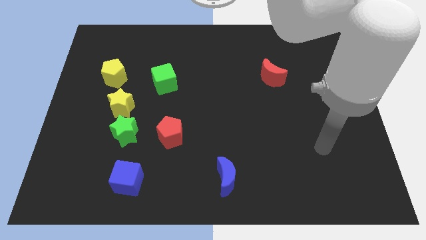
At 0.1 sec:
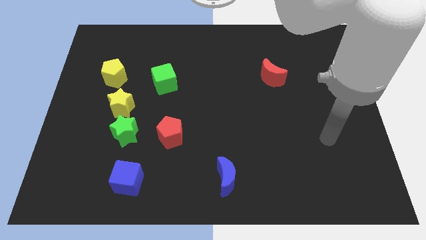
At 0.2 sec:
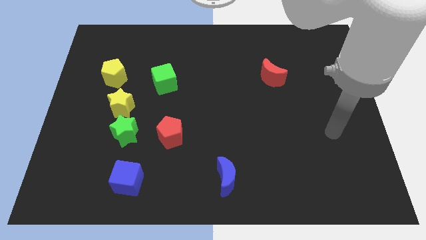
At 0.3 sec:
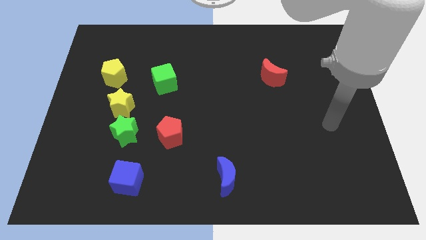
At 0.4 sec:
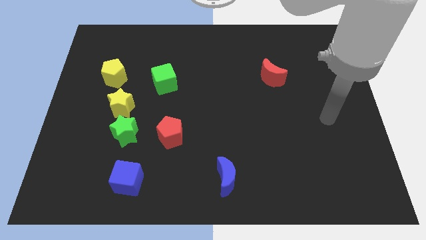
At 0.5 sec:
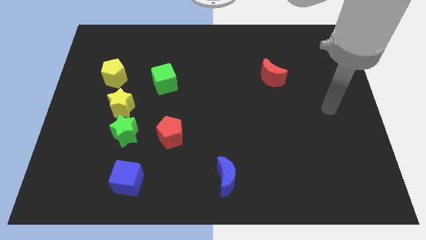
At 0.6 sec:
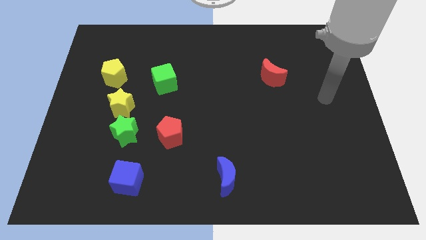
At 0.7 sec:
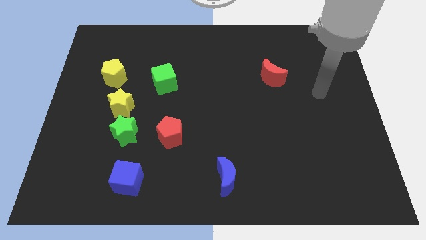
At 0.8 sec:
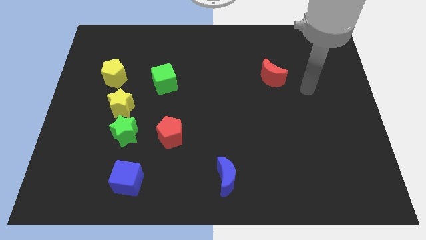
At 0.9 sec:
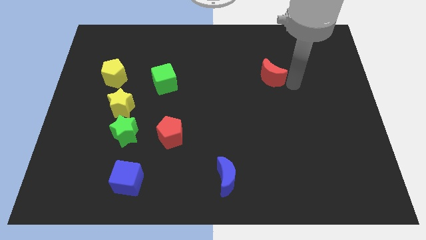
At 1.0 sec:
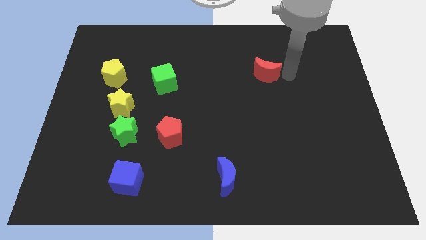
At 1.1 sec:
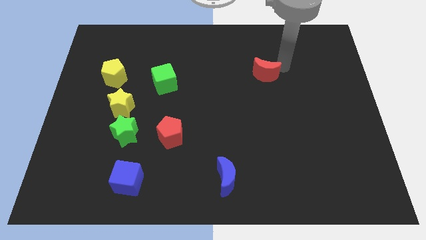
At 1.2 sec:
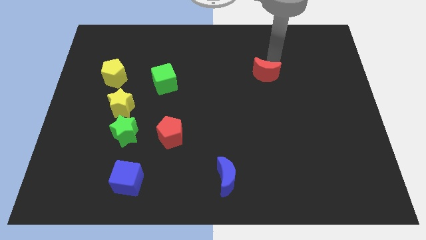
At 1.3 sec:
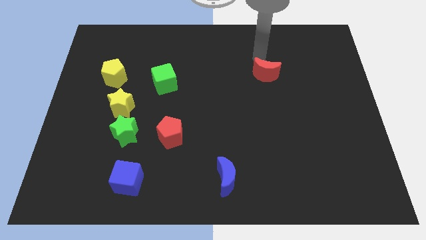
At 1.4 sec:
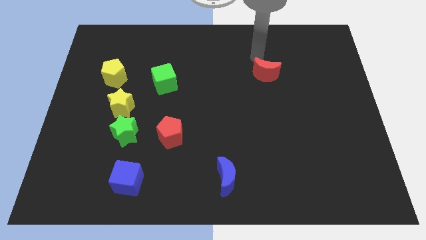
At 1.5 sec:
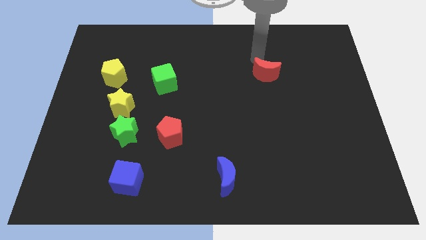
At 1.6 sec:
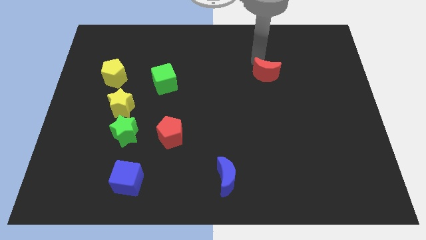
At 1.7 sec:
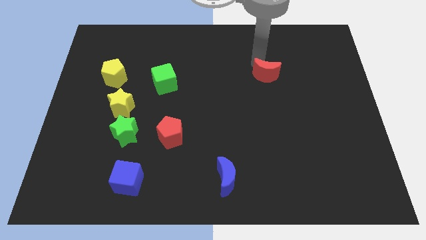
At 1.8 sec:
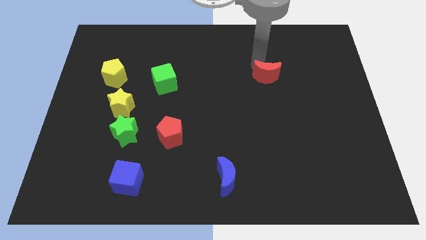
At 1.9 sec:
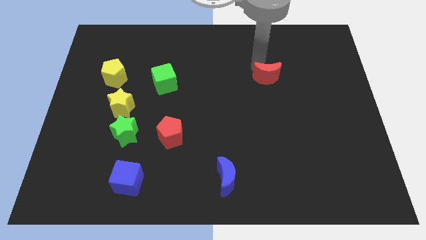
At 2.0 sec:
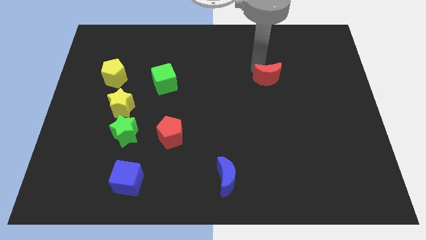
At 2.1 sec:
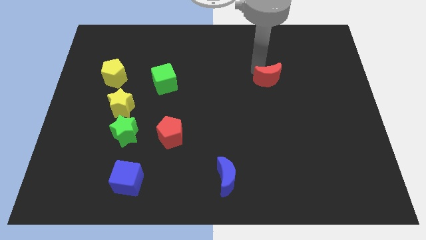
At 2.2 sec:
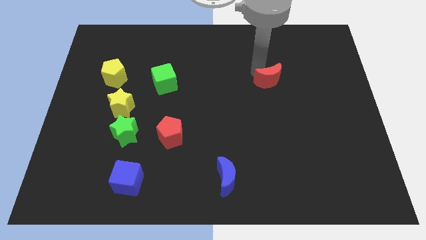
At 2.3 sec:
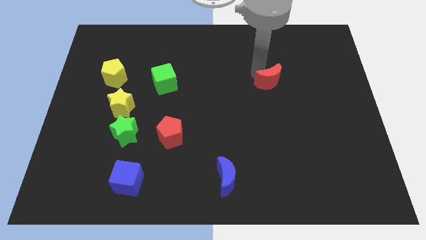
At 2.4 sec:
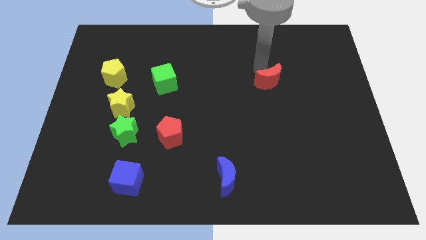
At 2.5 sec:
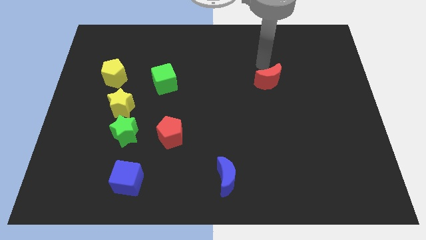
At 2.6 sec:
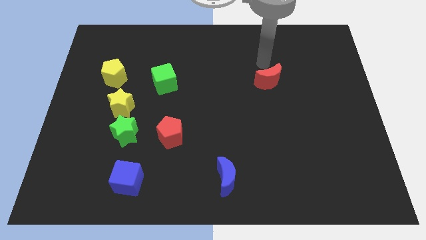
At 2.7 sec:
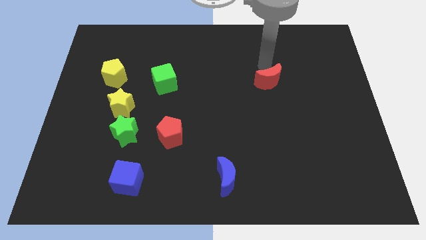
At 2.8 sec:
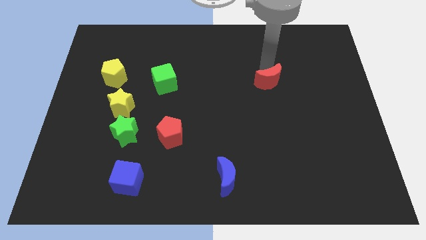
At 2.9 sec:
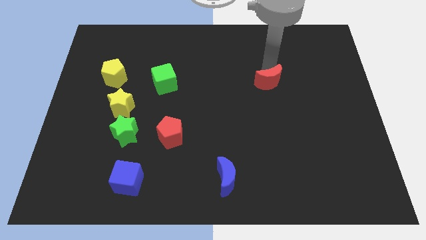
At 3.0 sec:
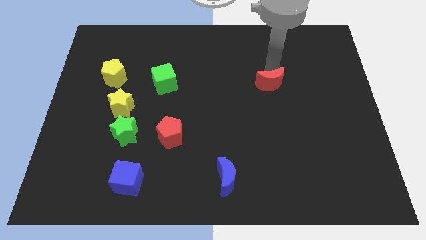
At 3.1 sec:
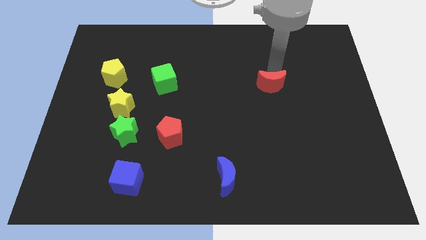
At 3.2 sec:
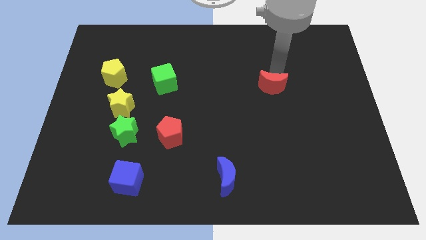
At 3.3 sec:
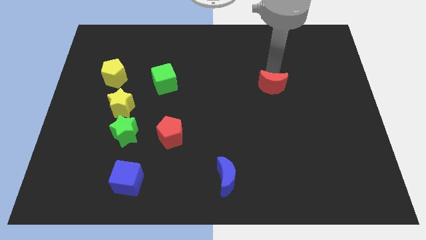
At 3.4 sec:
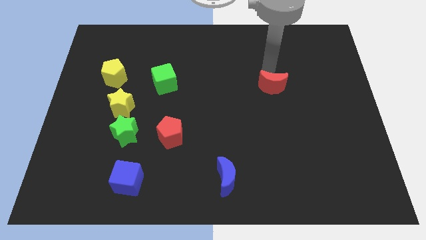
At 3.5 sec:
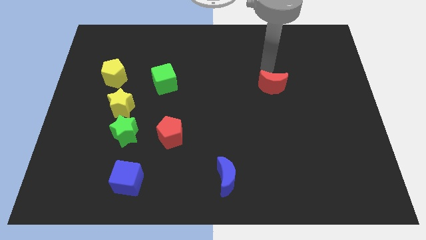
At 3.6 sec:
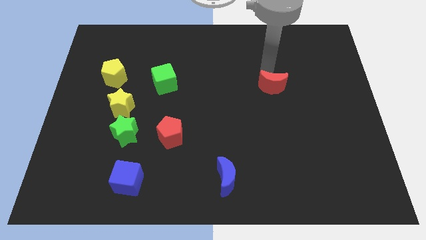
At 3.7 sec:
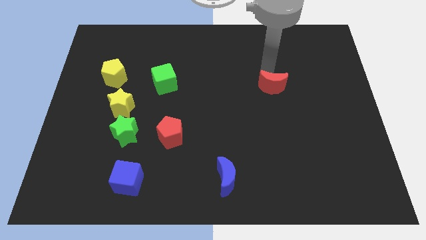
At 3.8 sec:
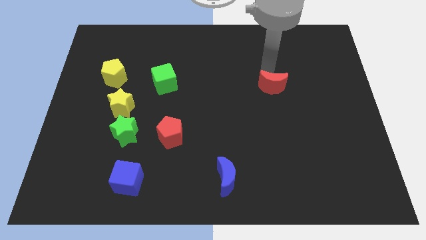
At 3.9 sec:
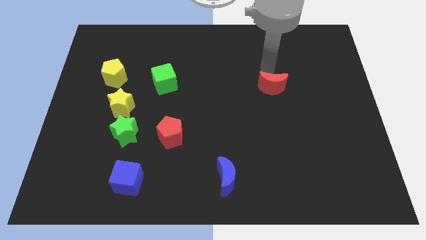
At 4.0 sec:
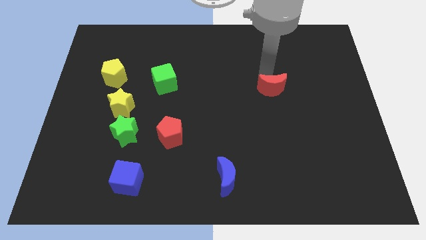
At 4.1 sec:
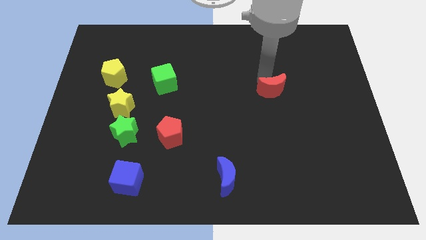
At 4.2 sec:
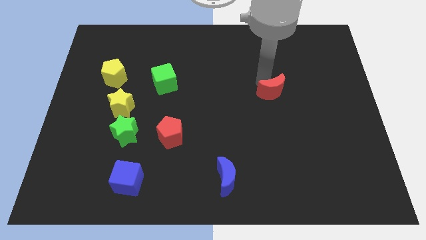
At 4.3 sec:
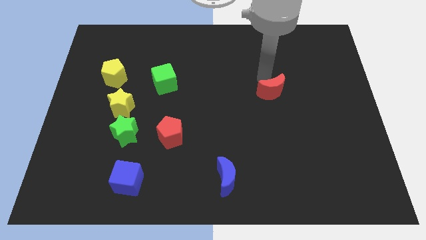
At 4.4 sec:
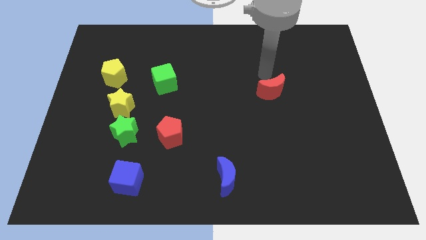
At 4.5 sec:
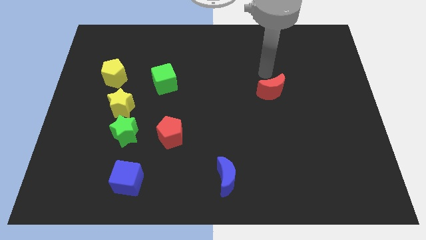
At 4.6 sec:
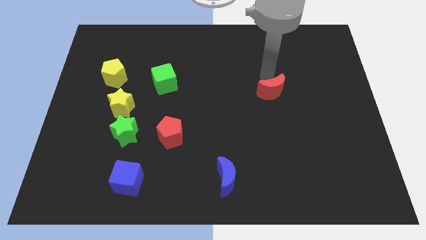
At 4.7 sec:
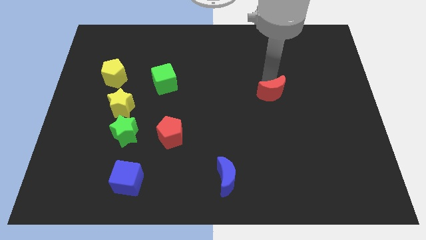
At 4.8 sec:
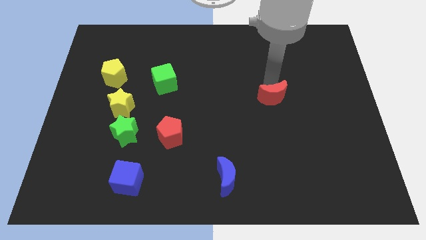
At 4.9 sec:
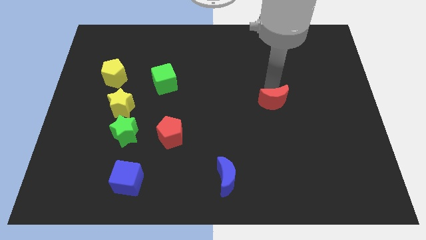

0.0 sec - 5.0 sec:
slightly slide the red moon down

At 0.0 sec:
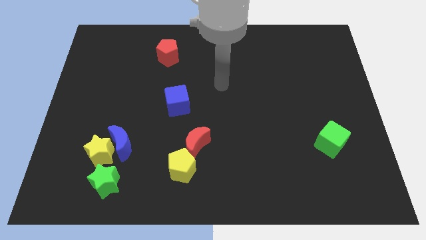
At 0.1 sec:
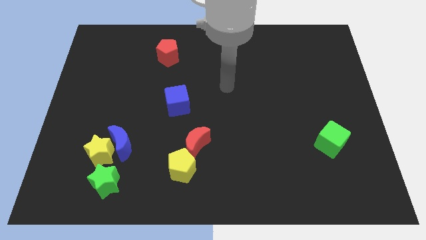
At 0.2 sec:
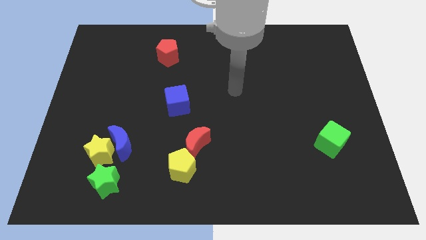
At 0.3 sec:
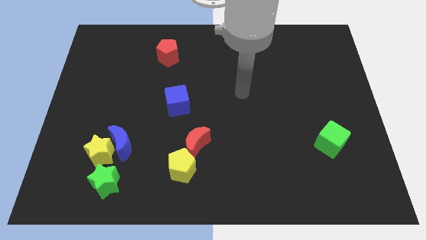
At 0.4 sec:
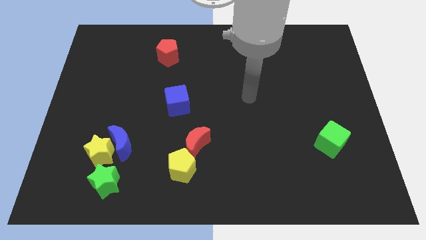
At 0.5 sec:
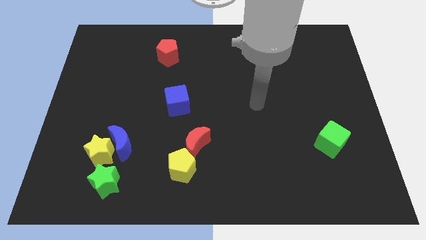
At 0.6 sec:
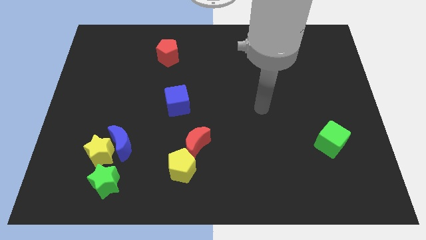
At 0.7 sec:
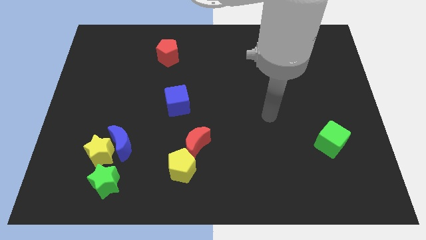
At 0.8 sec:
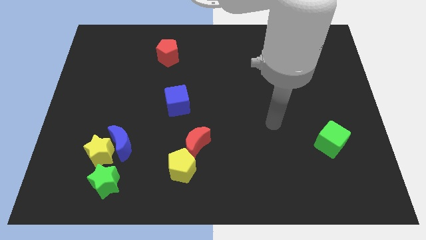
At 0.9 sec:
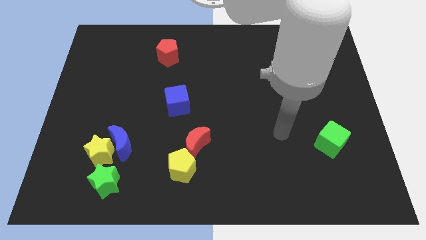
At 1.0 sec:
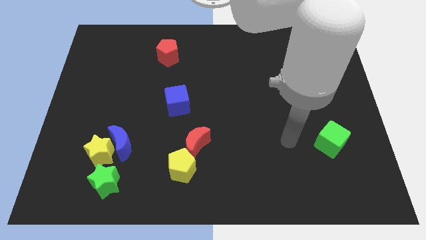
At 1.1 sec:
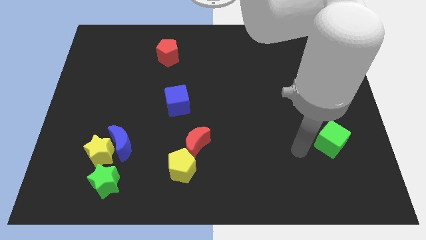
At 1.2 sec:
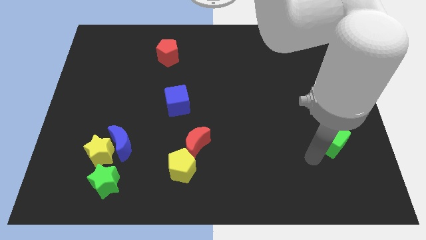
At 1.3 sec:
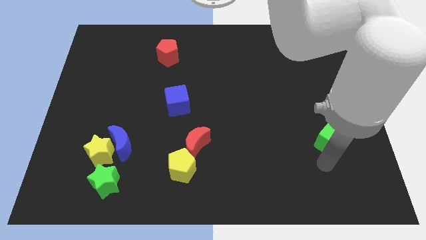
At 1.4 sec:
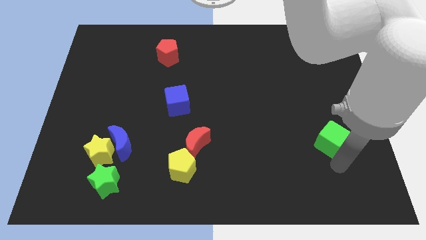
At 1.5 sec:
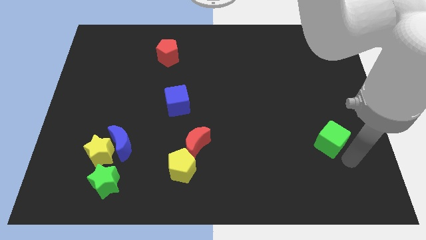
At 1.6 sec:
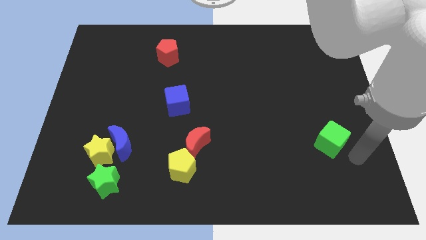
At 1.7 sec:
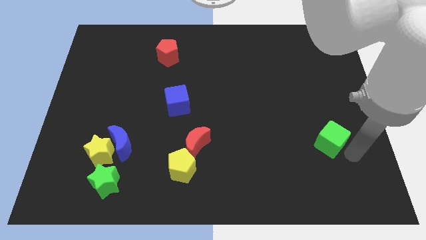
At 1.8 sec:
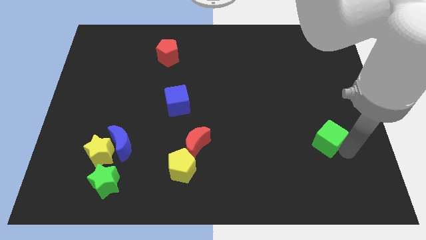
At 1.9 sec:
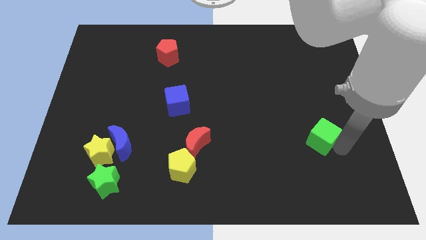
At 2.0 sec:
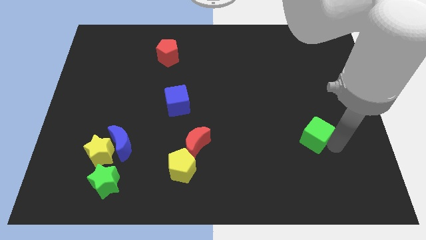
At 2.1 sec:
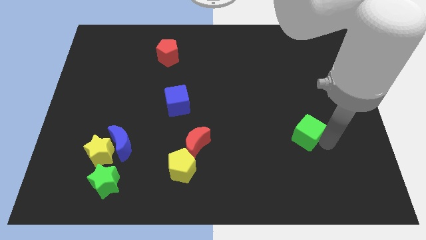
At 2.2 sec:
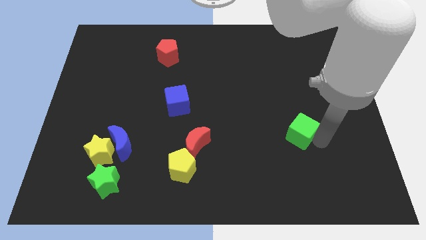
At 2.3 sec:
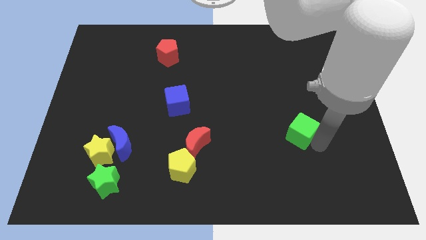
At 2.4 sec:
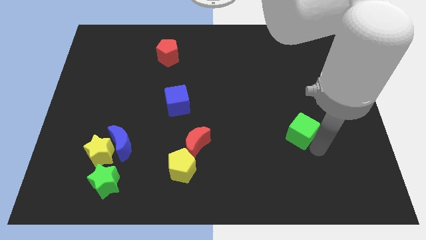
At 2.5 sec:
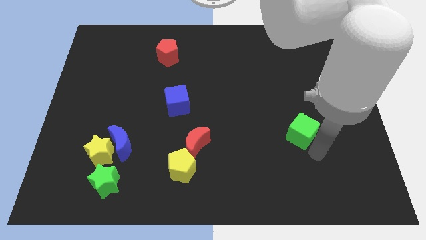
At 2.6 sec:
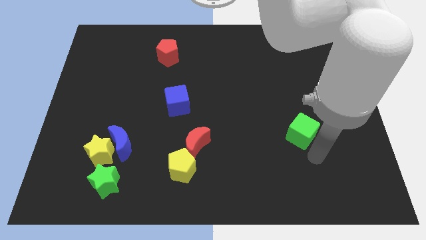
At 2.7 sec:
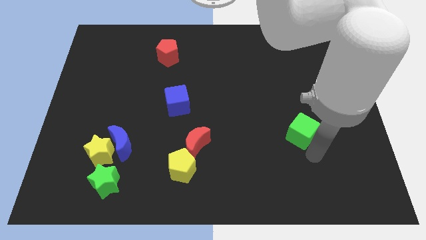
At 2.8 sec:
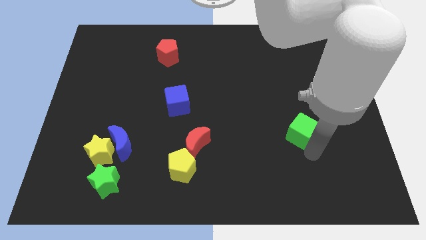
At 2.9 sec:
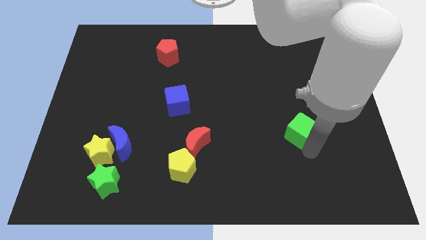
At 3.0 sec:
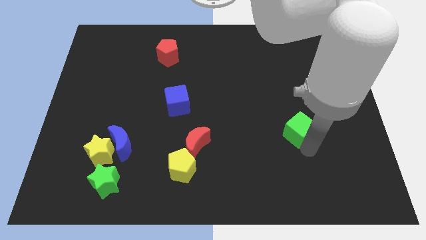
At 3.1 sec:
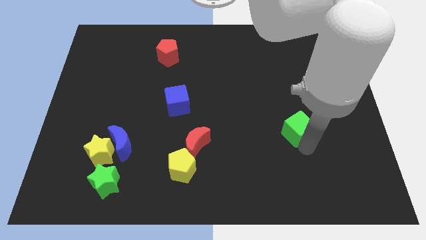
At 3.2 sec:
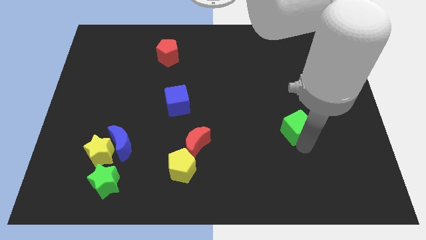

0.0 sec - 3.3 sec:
push the green cube up and left a bit

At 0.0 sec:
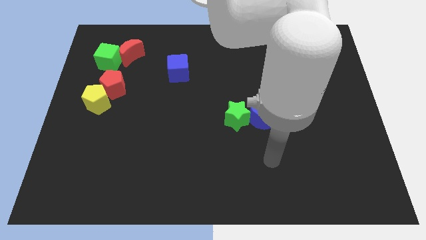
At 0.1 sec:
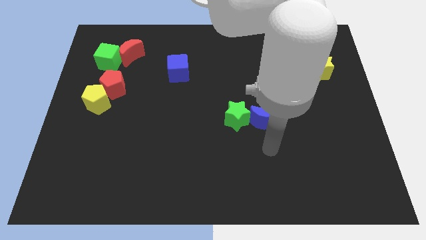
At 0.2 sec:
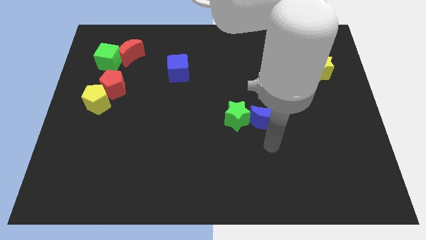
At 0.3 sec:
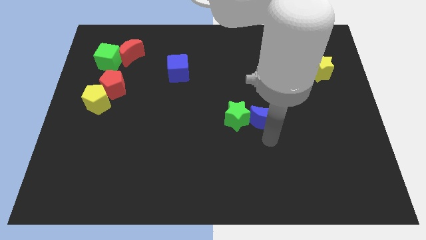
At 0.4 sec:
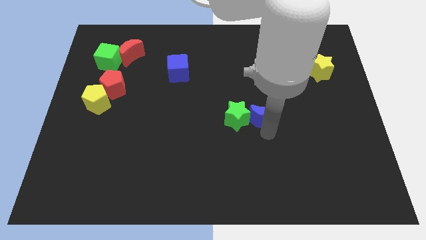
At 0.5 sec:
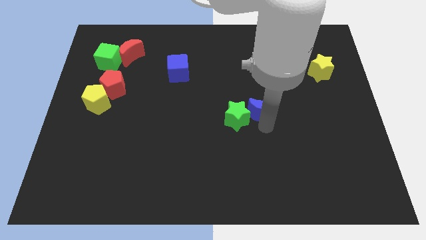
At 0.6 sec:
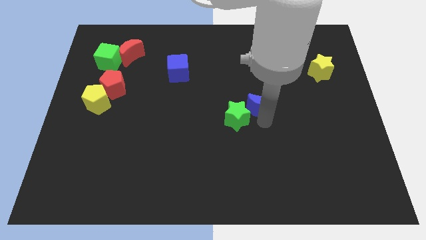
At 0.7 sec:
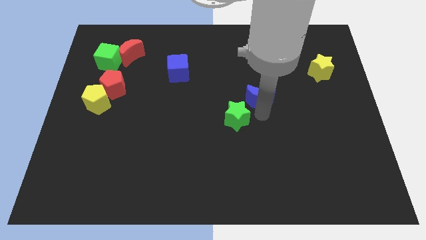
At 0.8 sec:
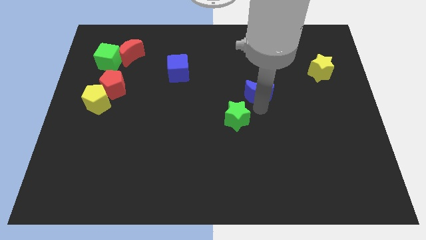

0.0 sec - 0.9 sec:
move the blue moon upwards a little bit
